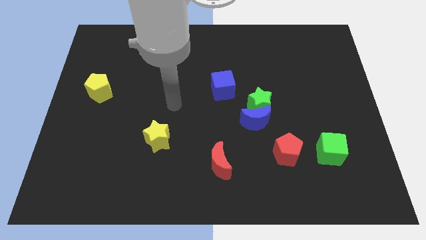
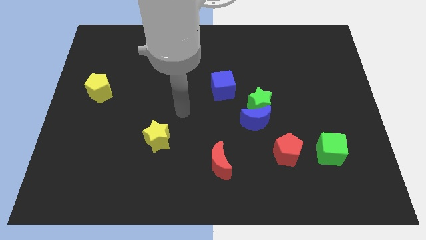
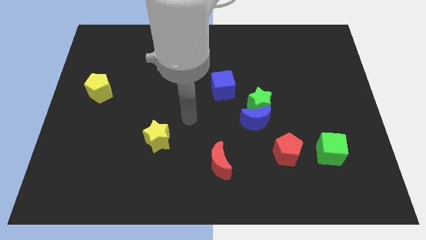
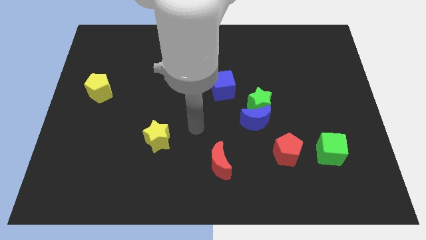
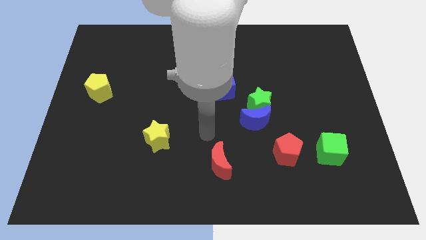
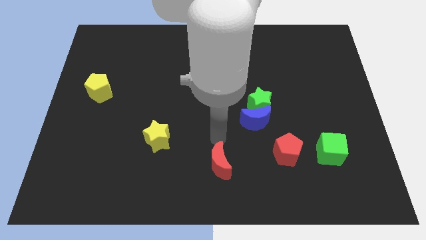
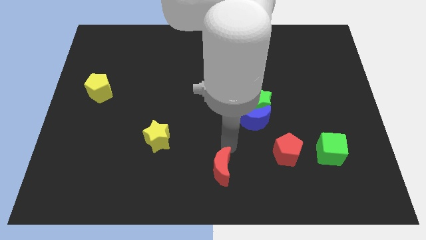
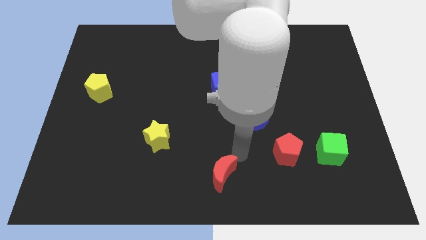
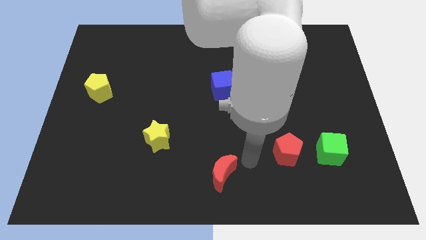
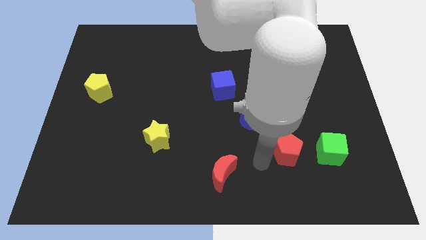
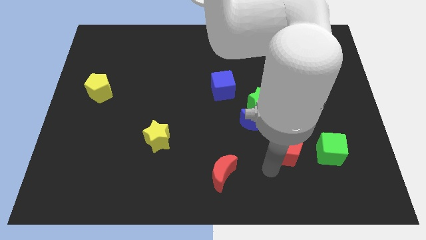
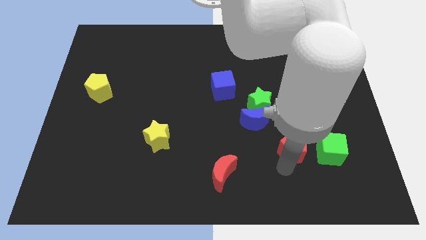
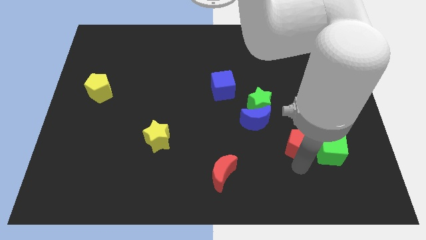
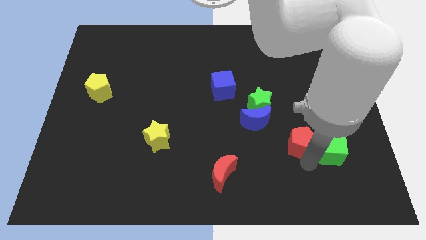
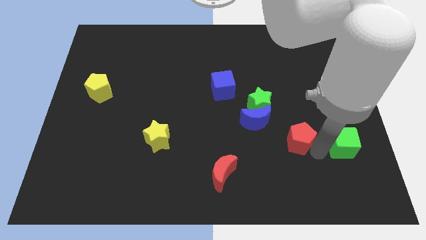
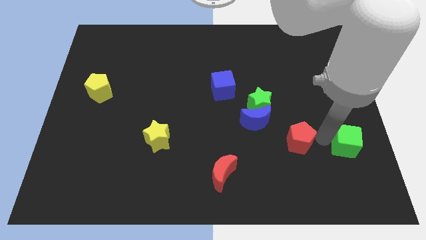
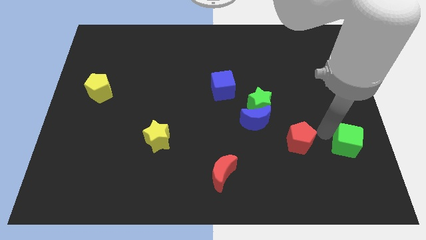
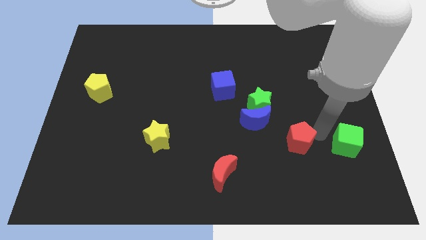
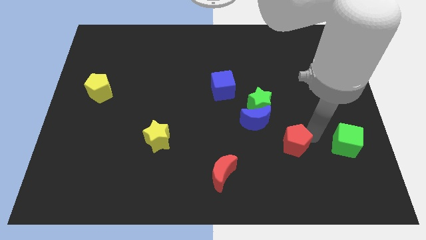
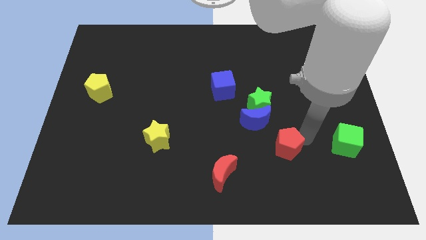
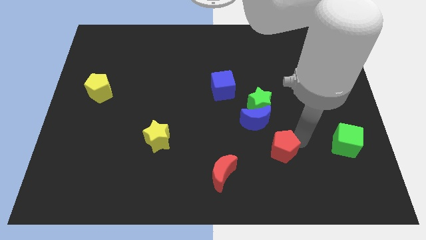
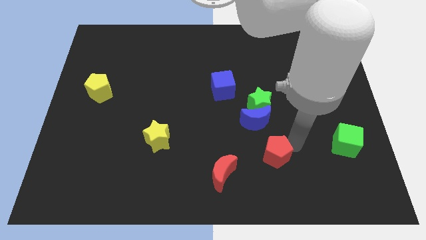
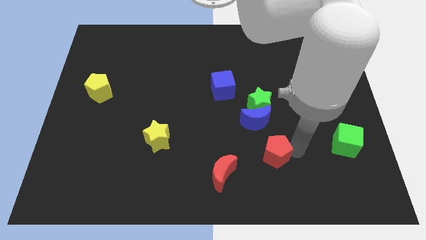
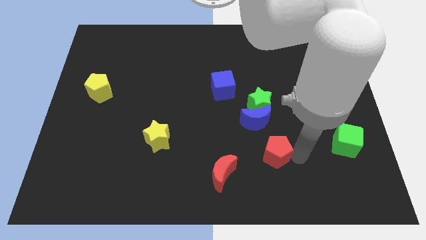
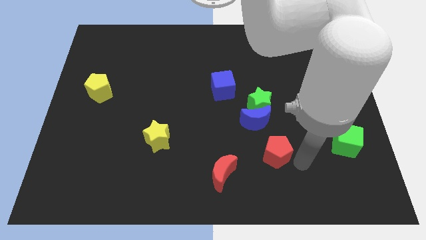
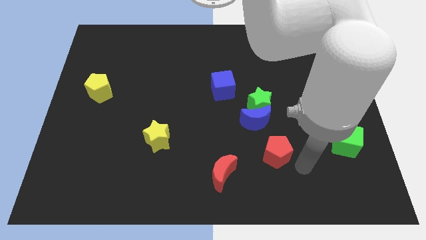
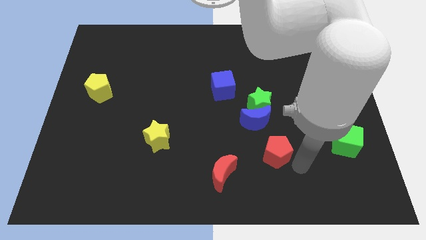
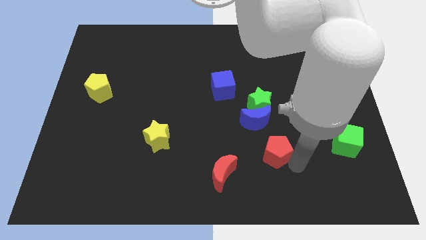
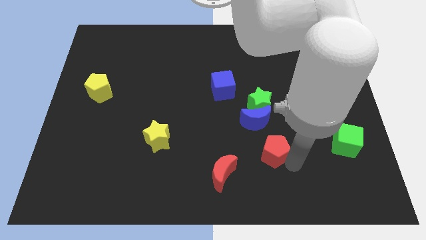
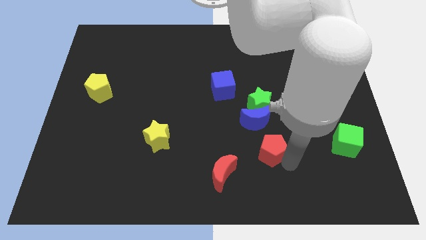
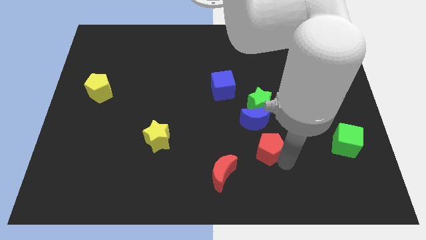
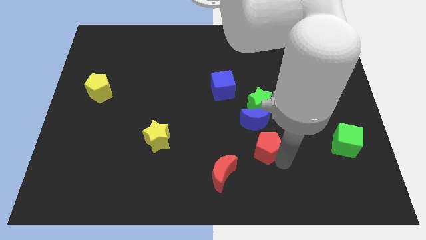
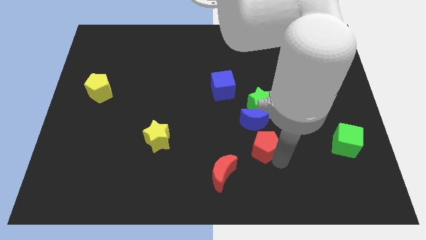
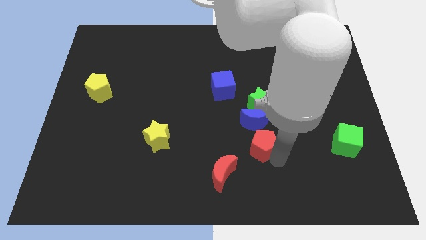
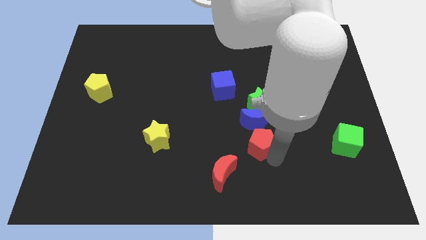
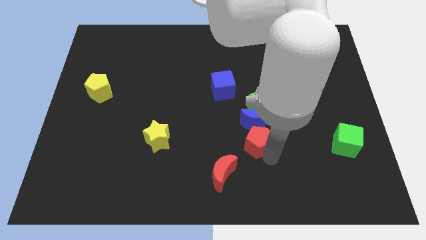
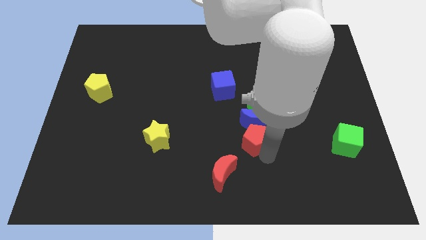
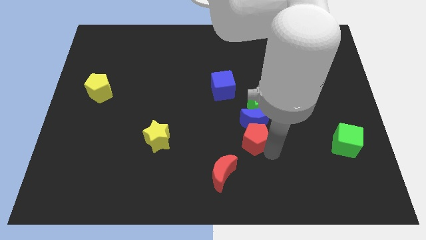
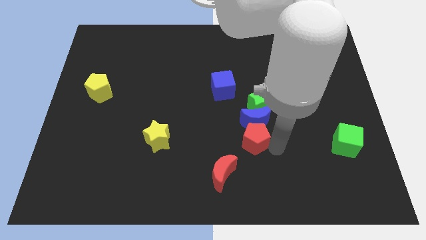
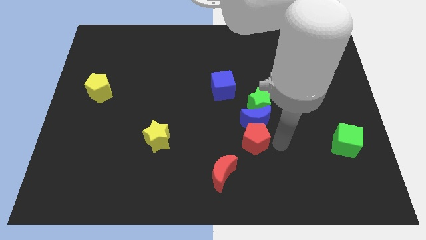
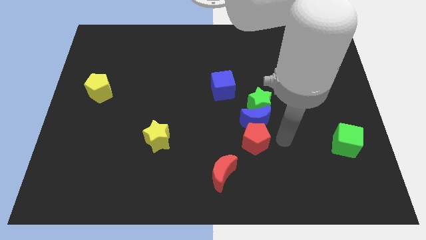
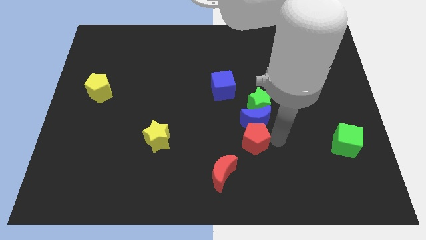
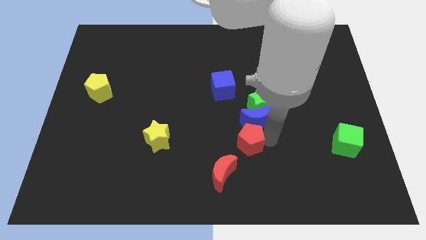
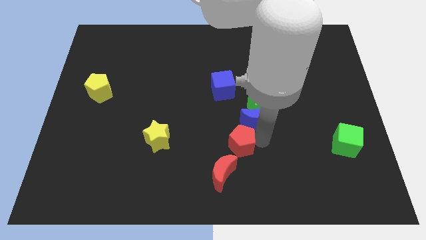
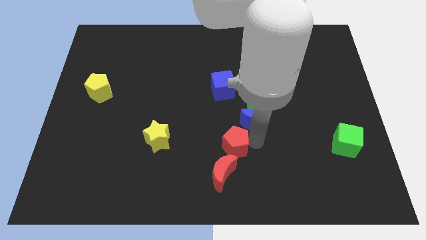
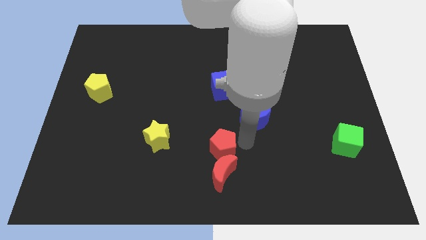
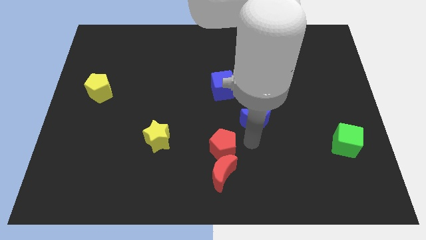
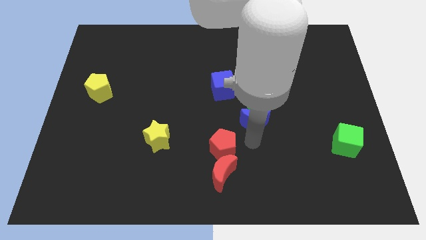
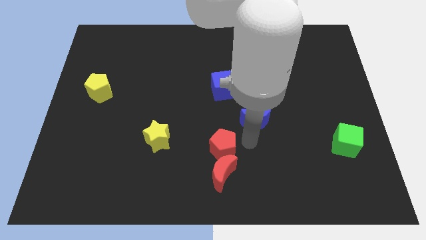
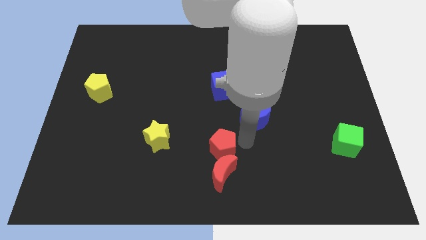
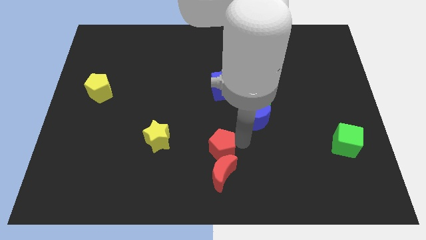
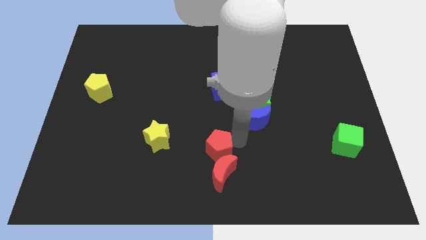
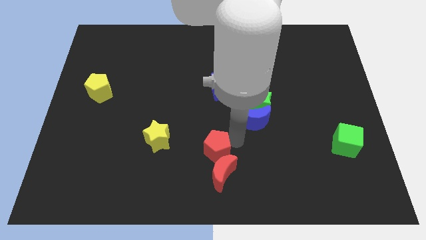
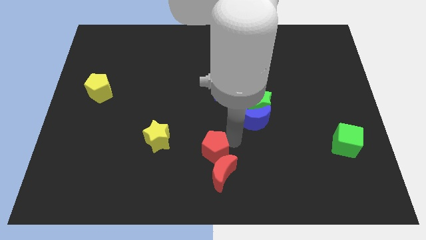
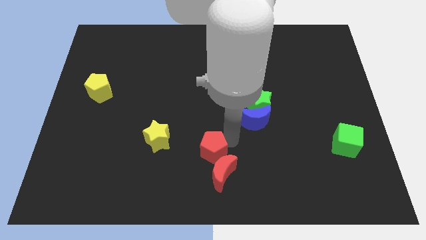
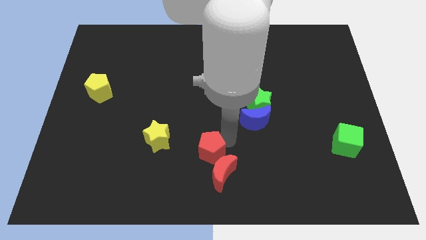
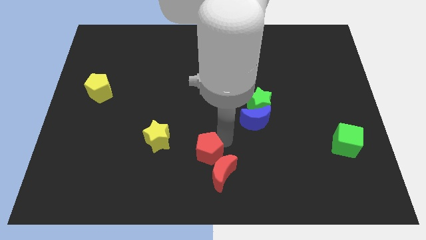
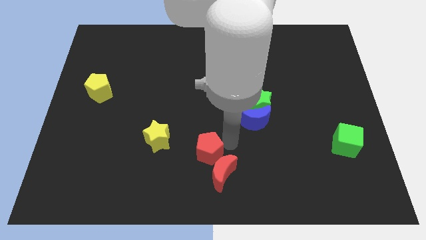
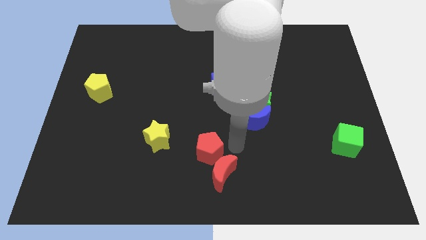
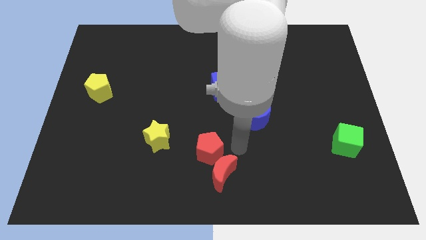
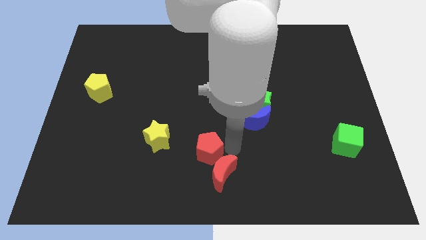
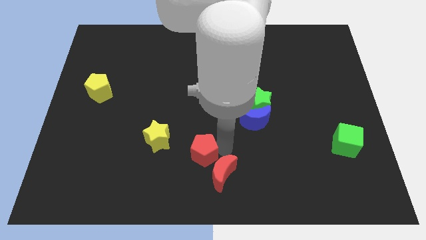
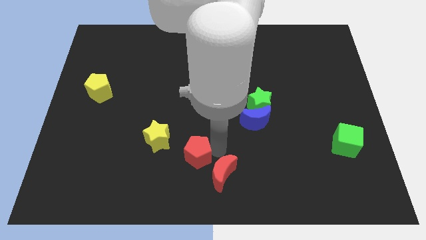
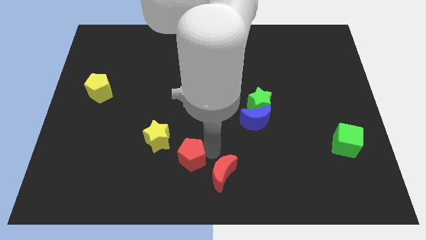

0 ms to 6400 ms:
move the red pentagon to the left

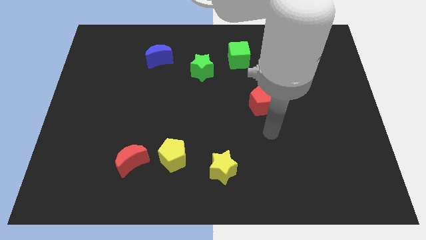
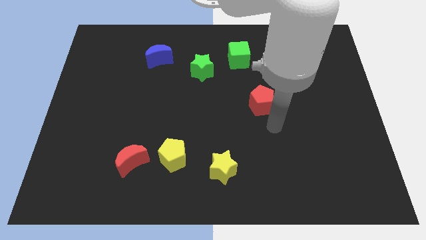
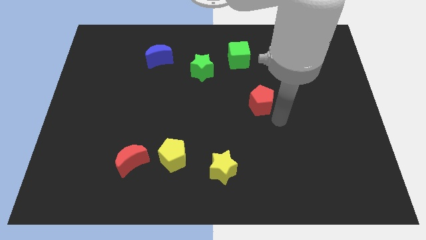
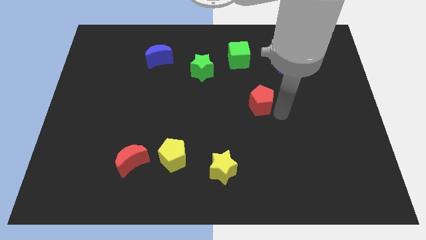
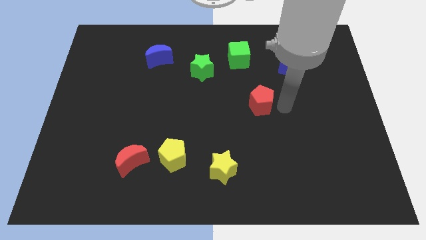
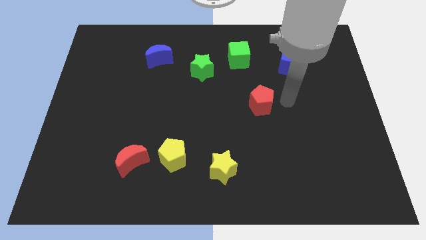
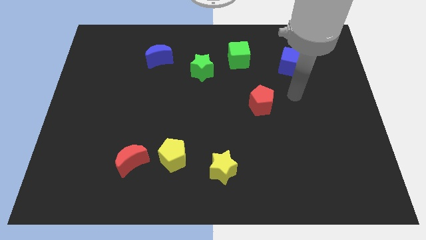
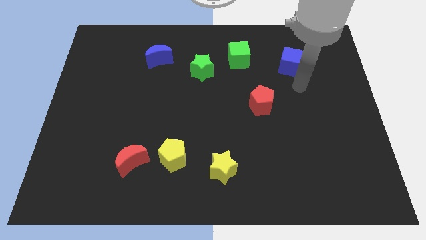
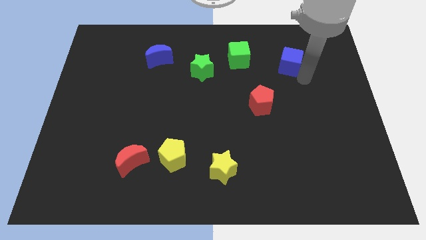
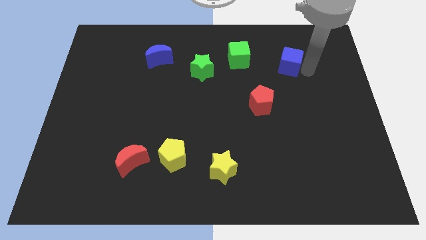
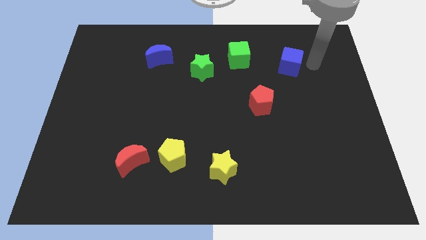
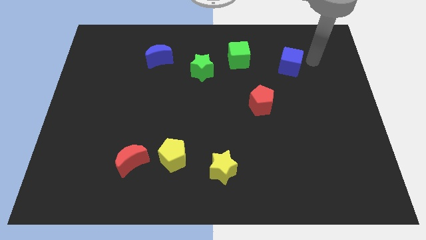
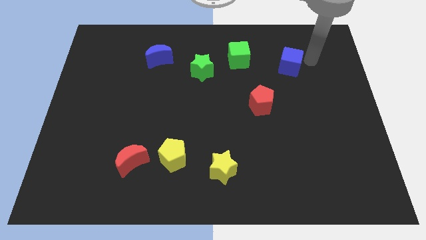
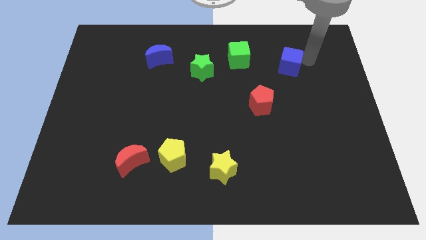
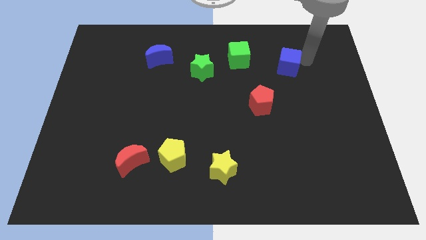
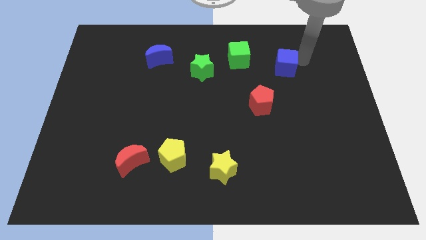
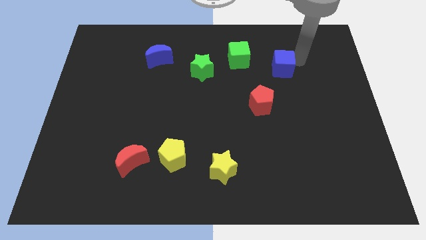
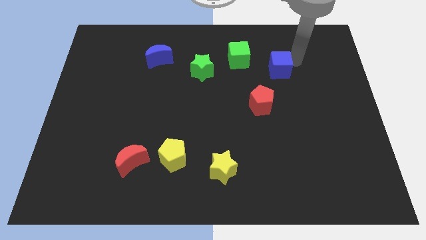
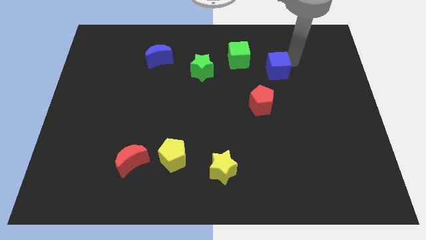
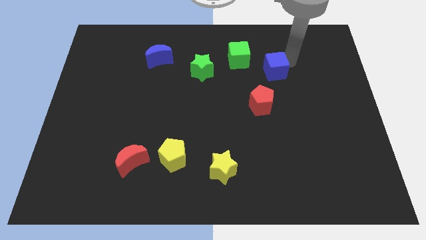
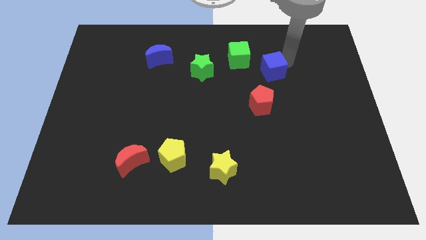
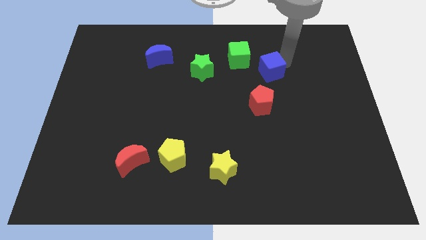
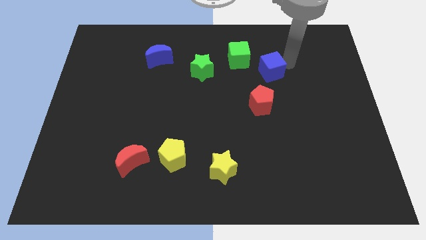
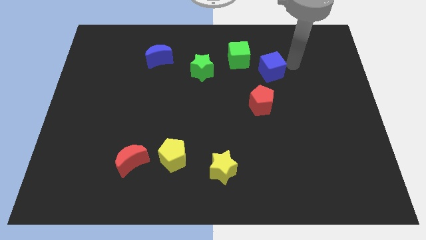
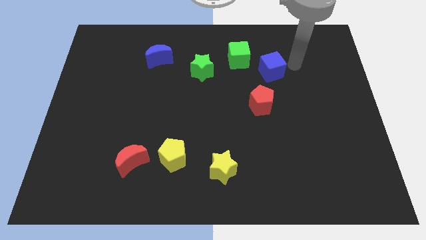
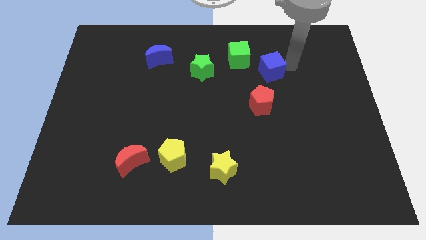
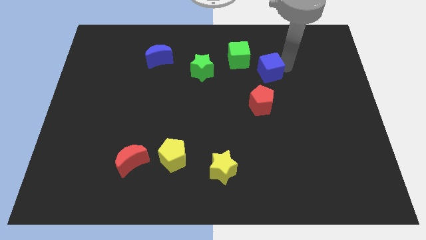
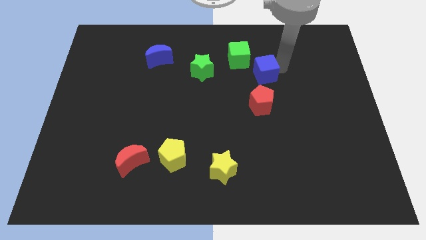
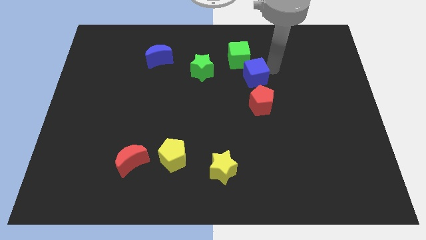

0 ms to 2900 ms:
slightly slide the blue cube down and to the left diagonally
